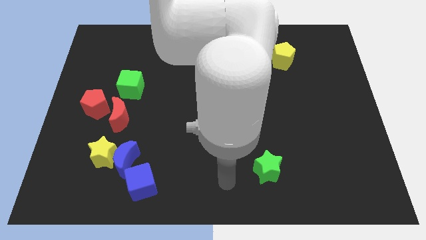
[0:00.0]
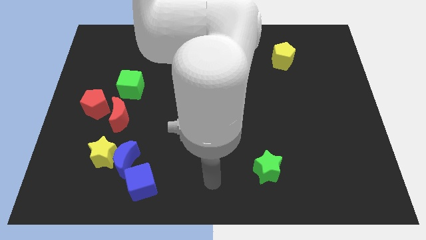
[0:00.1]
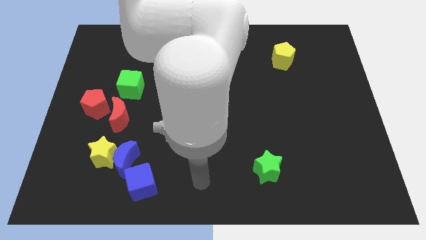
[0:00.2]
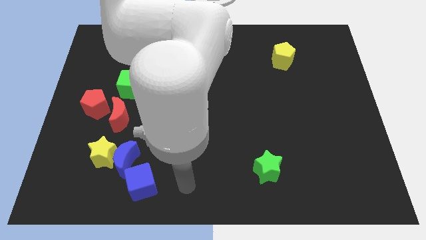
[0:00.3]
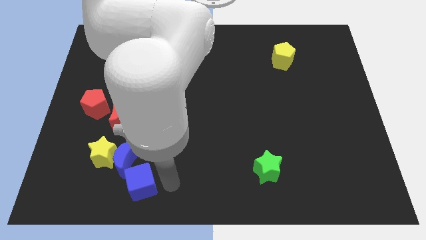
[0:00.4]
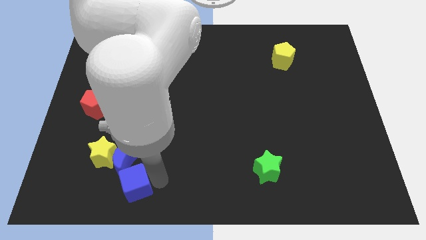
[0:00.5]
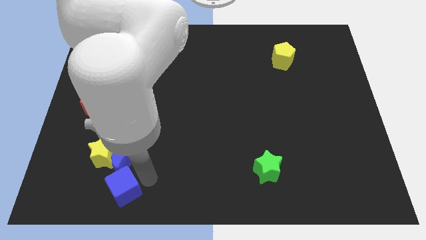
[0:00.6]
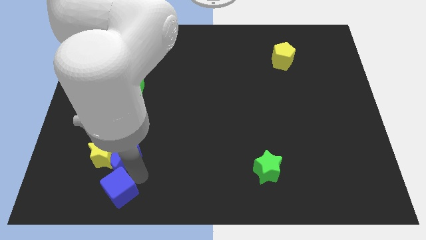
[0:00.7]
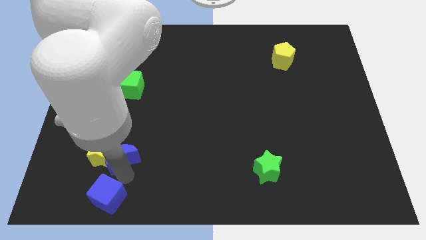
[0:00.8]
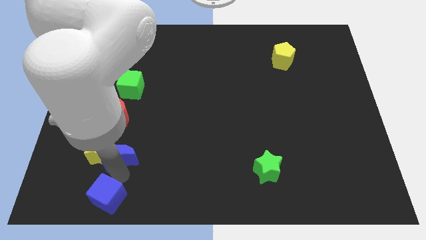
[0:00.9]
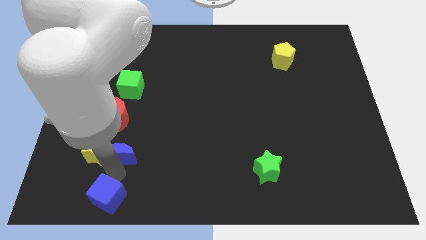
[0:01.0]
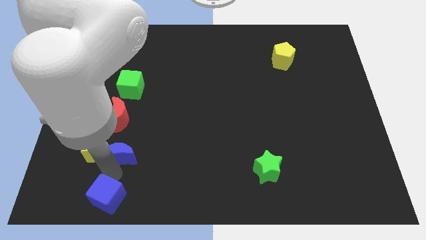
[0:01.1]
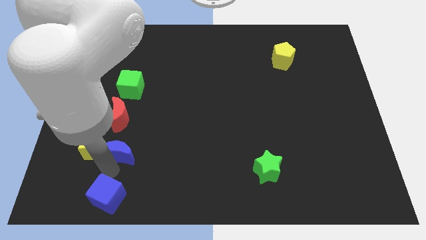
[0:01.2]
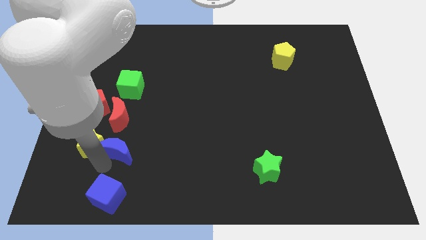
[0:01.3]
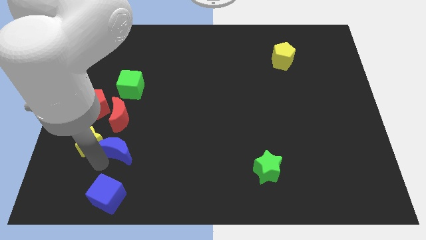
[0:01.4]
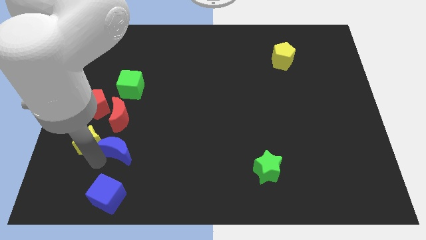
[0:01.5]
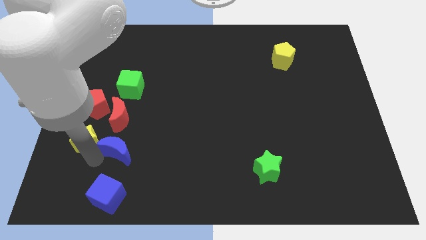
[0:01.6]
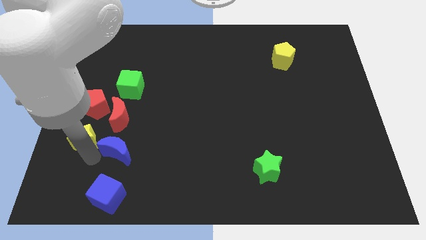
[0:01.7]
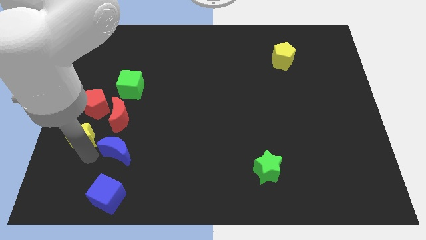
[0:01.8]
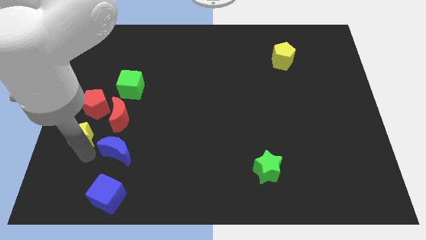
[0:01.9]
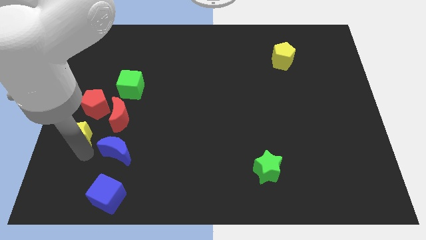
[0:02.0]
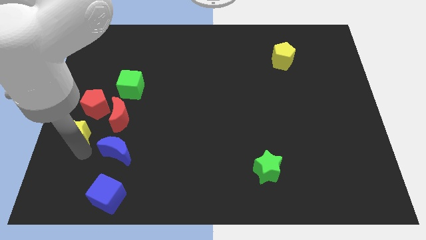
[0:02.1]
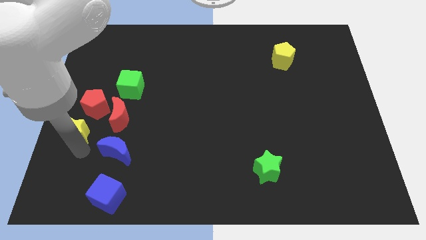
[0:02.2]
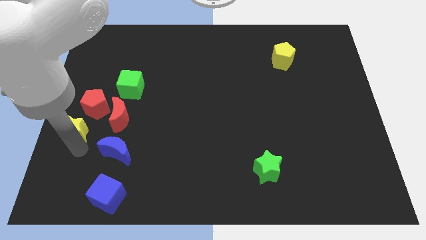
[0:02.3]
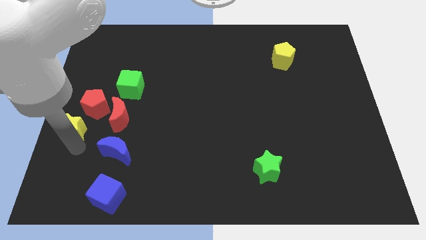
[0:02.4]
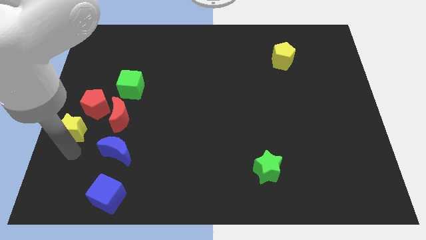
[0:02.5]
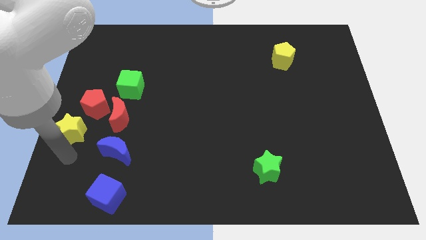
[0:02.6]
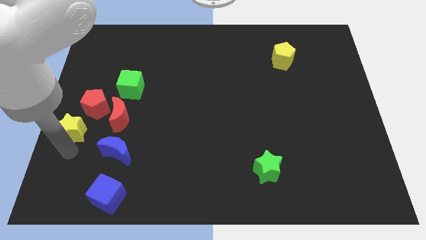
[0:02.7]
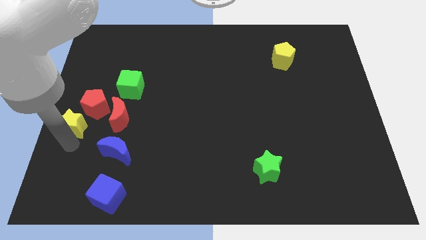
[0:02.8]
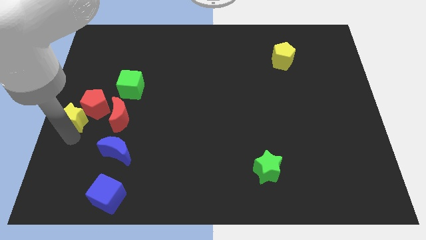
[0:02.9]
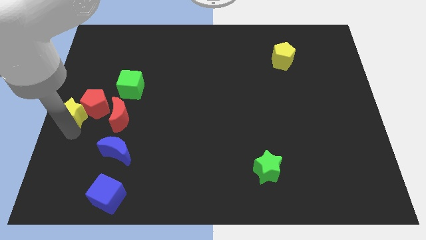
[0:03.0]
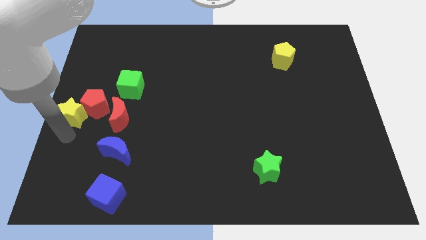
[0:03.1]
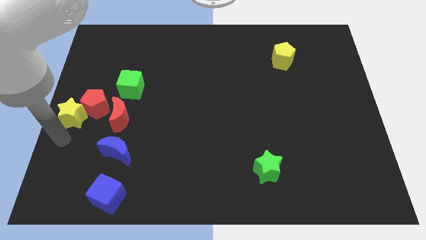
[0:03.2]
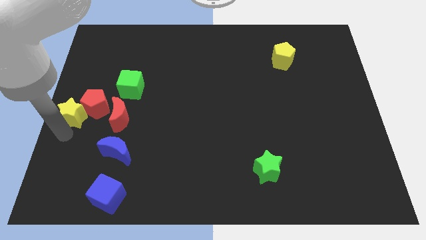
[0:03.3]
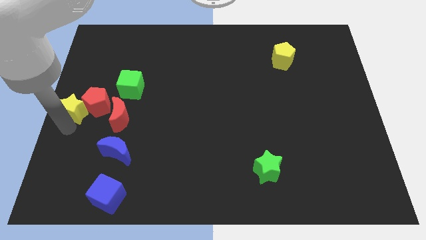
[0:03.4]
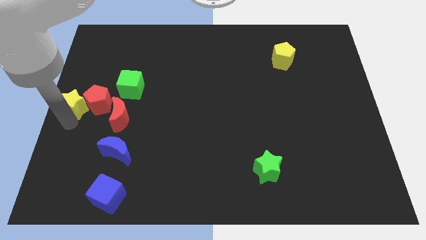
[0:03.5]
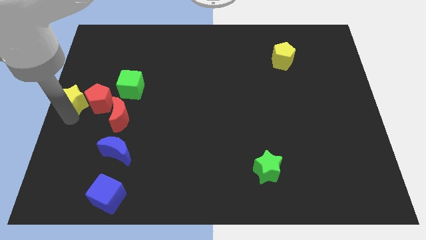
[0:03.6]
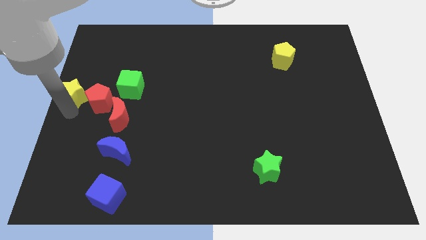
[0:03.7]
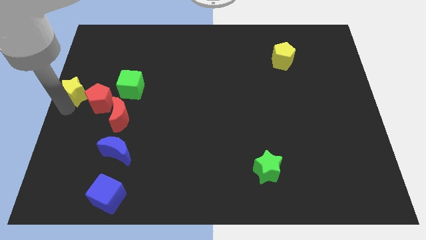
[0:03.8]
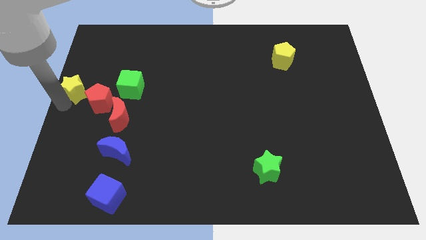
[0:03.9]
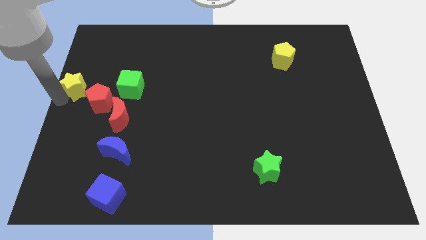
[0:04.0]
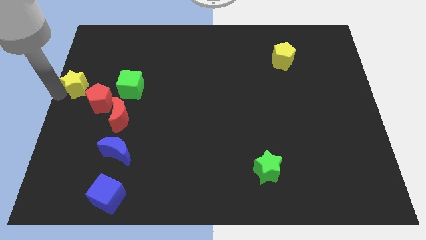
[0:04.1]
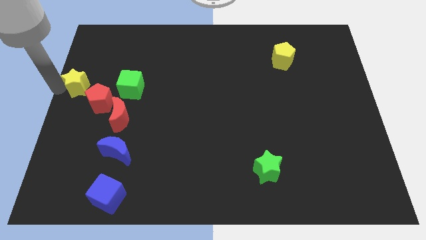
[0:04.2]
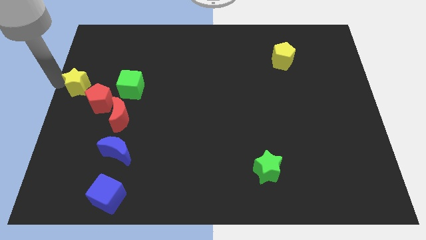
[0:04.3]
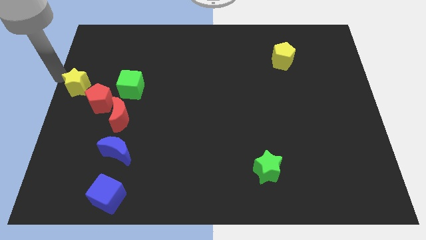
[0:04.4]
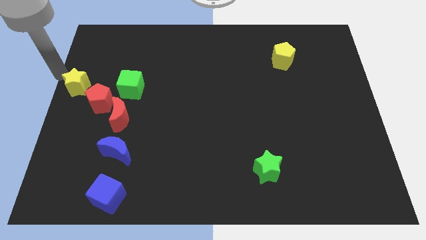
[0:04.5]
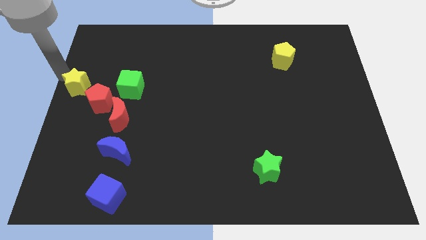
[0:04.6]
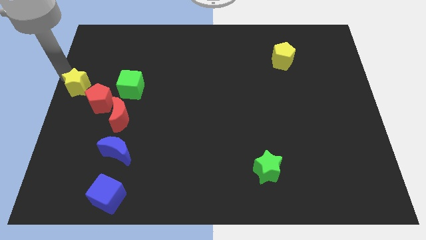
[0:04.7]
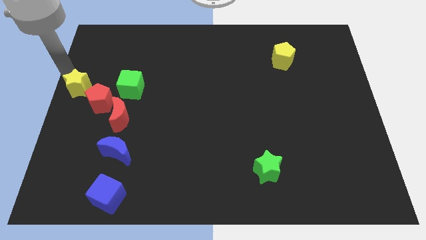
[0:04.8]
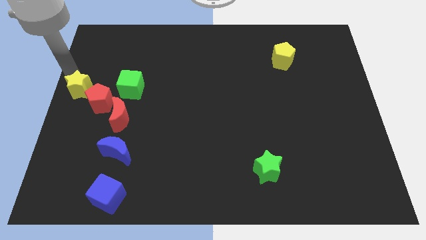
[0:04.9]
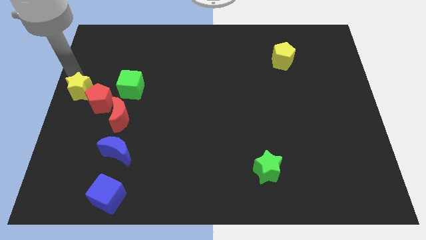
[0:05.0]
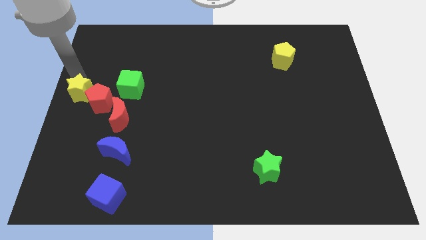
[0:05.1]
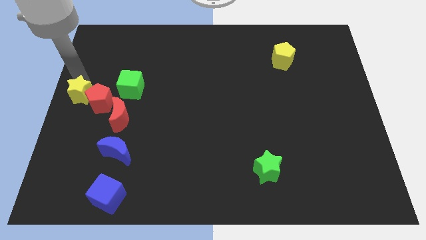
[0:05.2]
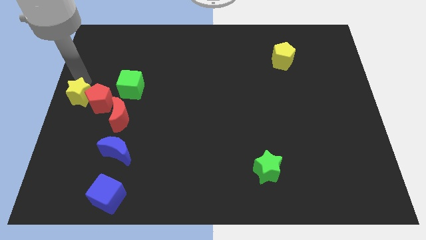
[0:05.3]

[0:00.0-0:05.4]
push the yellow star to the top left side of the red moon

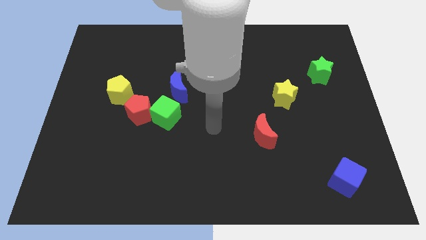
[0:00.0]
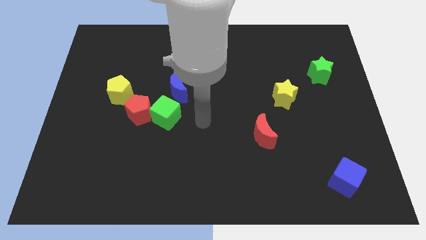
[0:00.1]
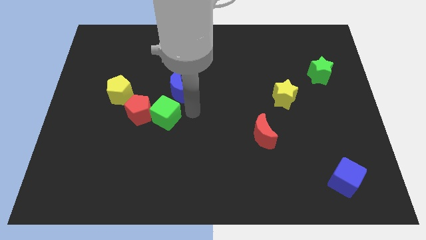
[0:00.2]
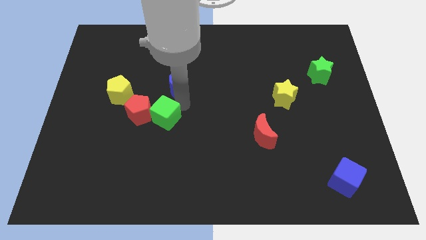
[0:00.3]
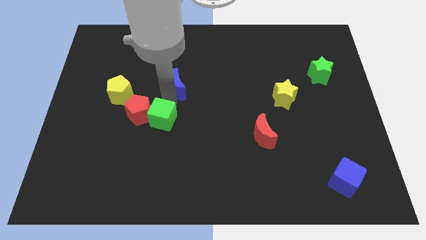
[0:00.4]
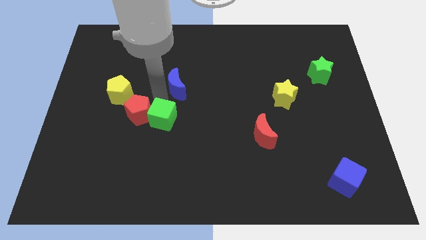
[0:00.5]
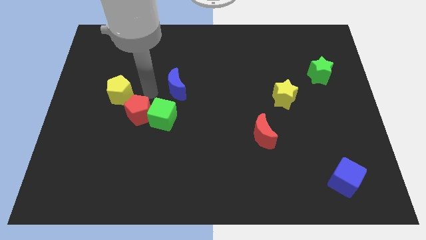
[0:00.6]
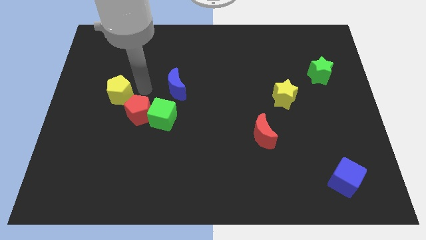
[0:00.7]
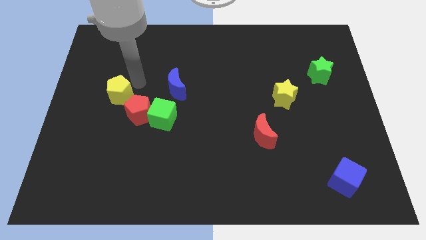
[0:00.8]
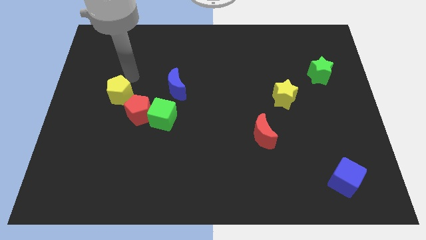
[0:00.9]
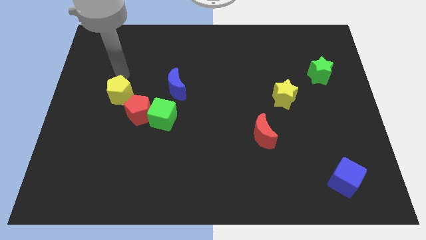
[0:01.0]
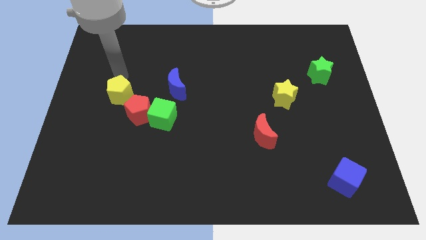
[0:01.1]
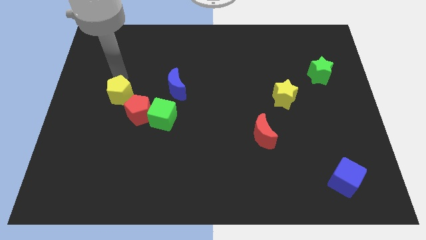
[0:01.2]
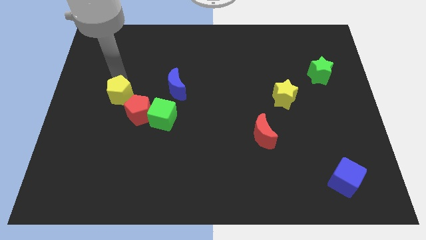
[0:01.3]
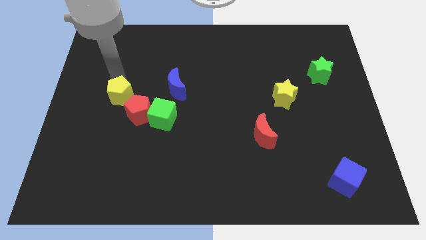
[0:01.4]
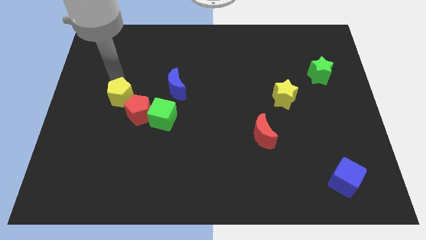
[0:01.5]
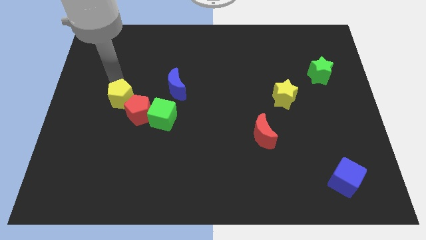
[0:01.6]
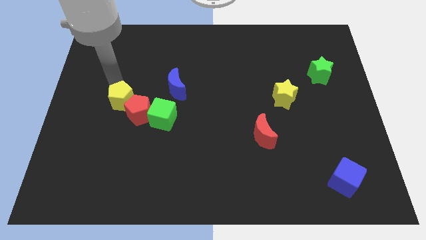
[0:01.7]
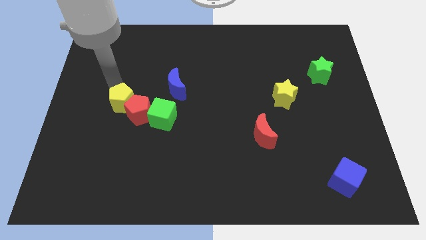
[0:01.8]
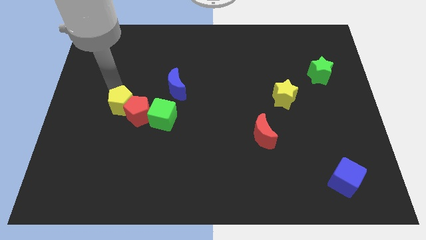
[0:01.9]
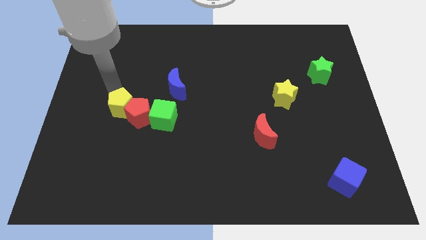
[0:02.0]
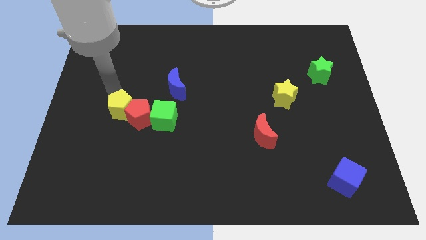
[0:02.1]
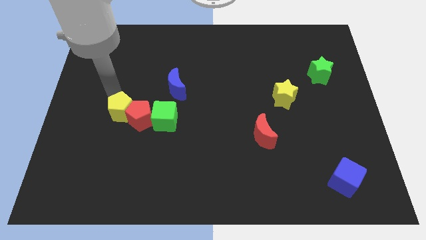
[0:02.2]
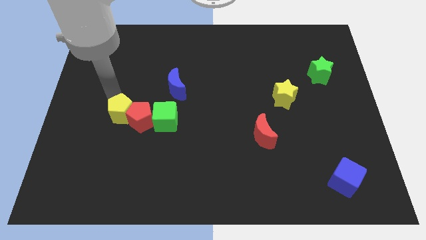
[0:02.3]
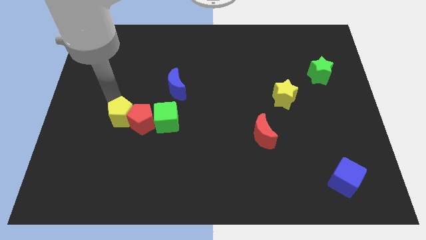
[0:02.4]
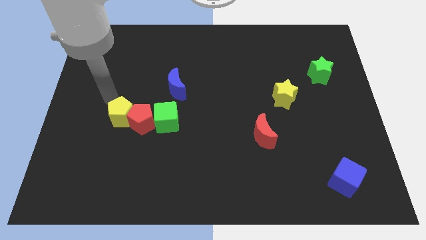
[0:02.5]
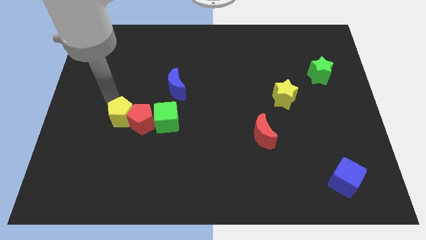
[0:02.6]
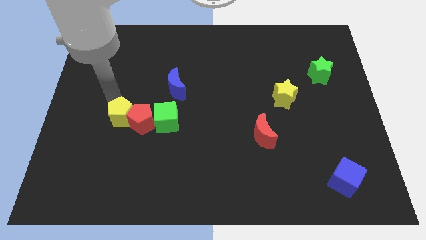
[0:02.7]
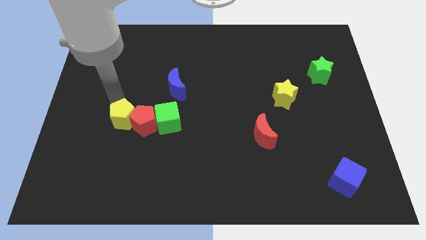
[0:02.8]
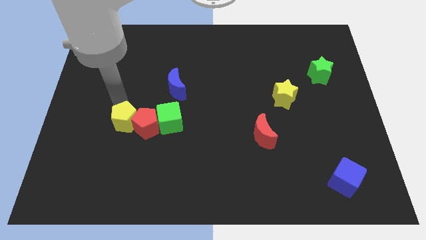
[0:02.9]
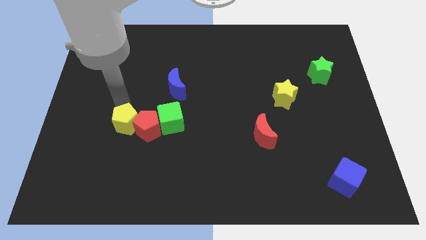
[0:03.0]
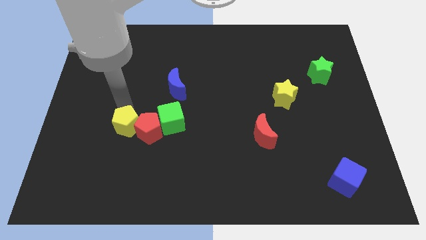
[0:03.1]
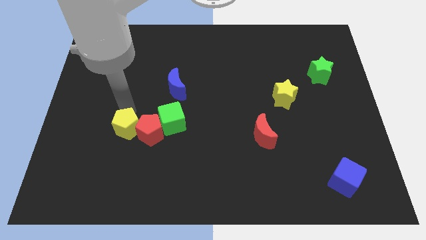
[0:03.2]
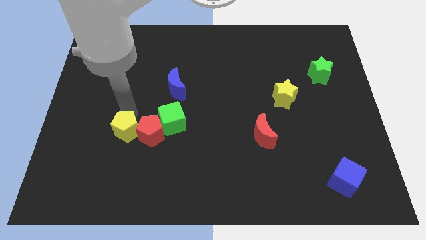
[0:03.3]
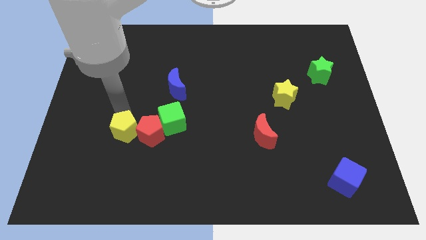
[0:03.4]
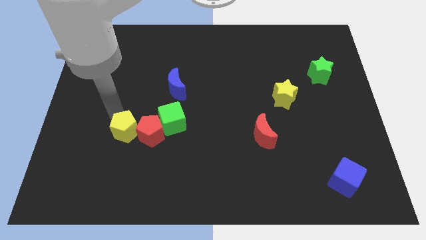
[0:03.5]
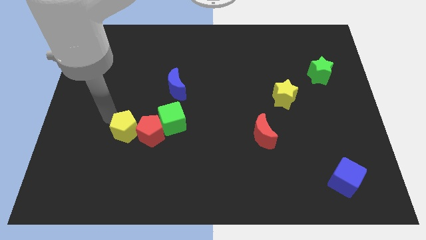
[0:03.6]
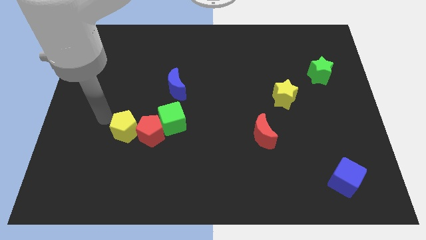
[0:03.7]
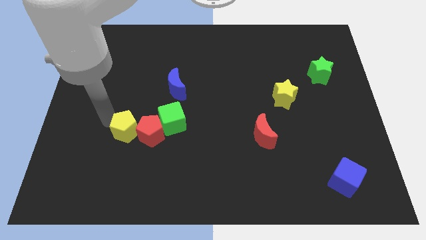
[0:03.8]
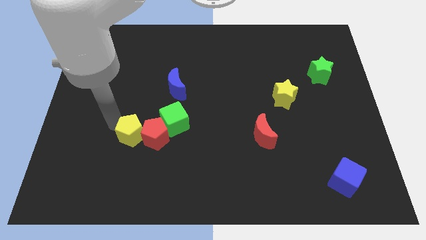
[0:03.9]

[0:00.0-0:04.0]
put the yellow pentagon to the bottom left of the green cube
